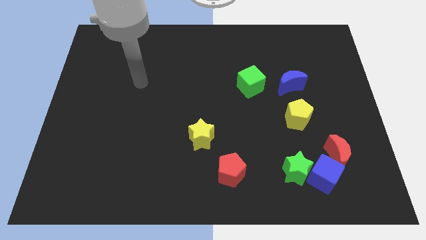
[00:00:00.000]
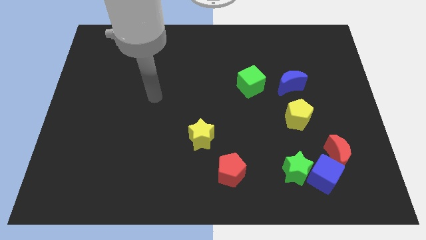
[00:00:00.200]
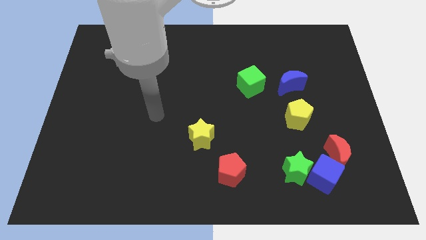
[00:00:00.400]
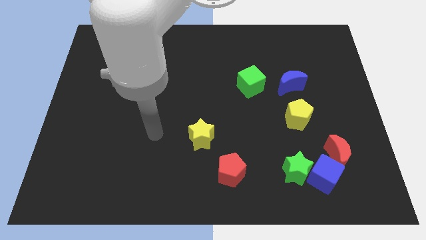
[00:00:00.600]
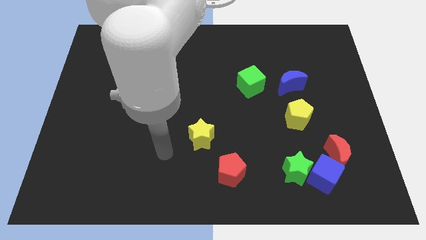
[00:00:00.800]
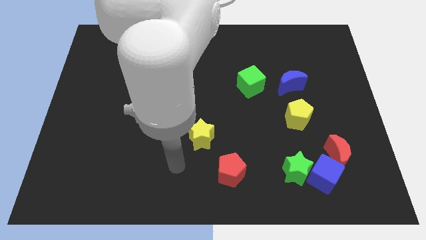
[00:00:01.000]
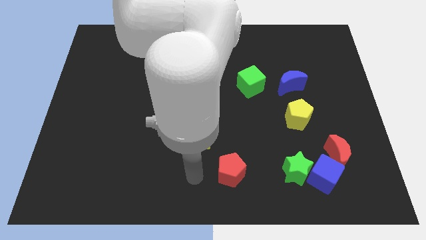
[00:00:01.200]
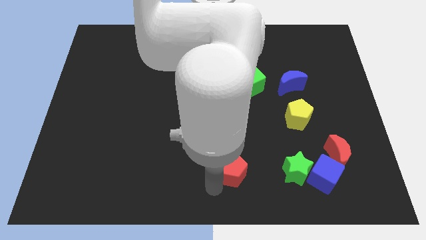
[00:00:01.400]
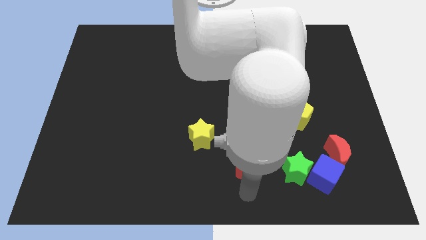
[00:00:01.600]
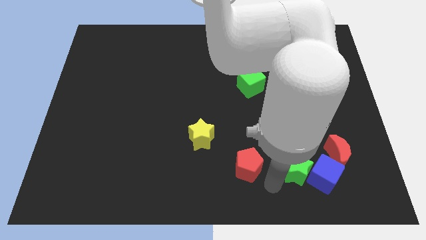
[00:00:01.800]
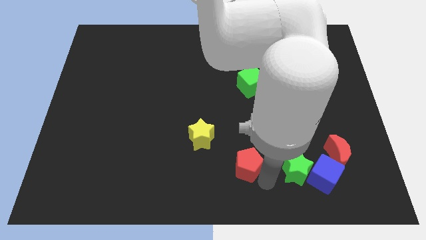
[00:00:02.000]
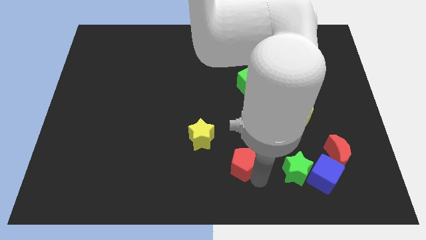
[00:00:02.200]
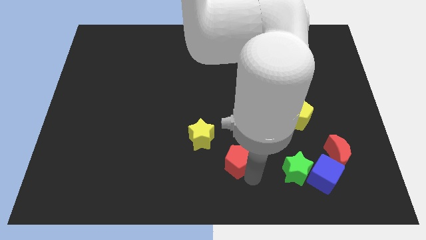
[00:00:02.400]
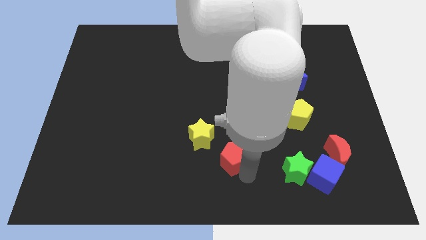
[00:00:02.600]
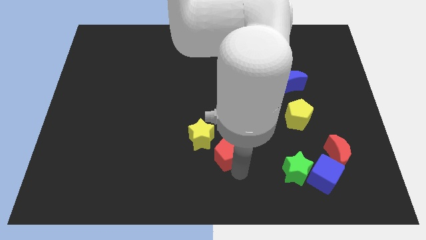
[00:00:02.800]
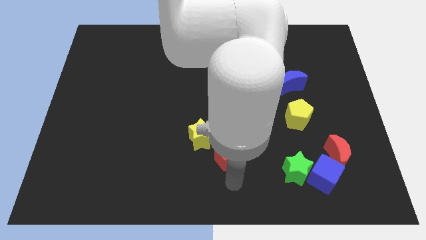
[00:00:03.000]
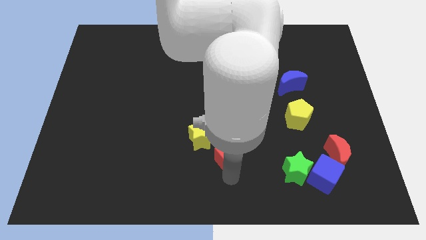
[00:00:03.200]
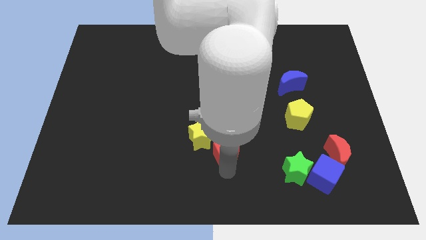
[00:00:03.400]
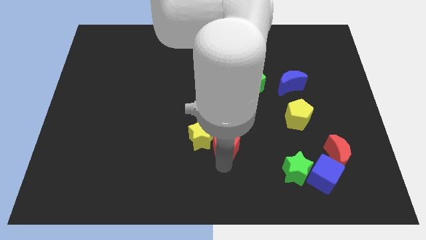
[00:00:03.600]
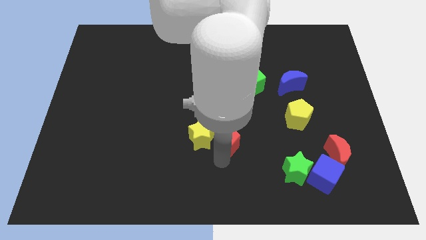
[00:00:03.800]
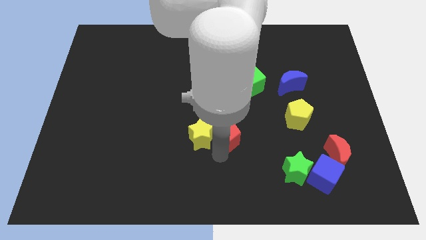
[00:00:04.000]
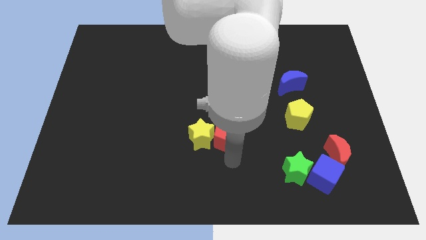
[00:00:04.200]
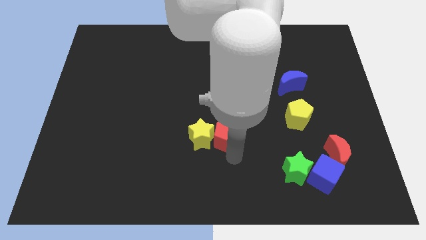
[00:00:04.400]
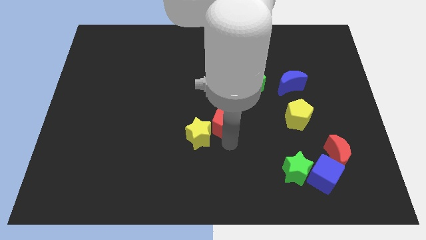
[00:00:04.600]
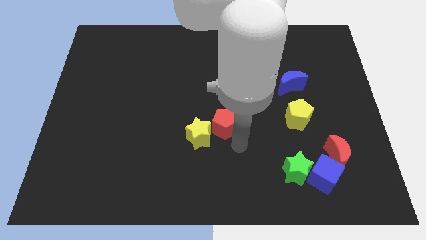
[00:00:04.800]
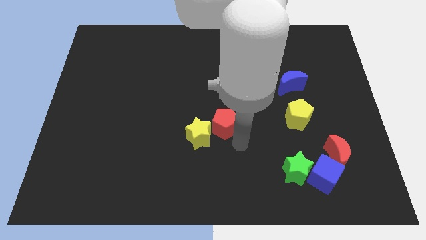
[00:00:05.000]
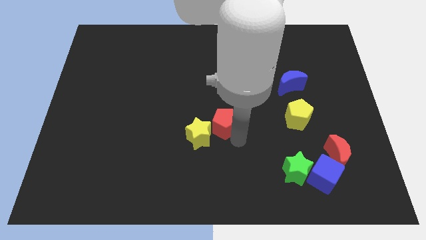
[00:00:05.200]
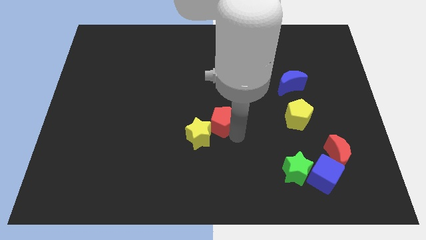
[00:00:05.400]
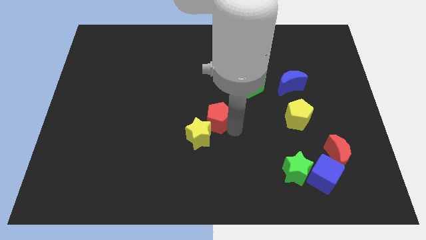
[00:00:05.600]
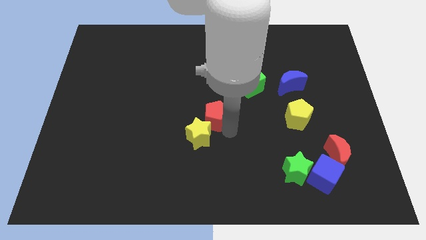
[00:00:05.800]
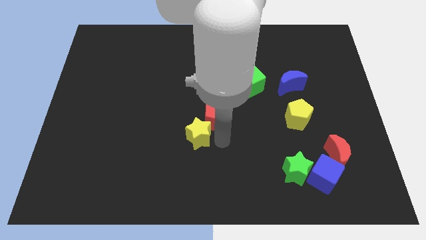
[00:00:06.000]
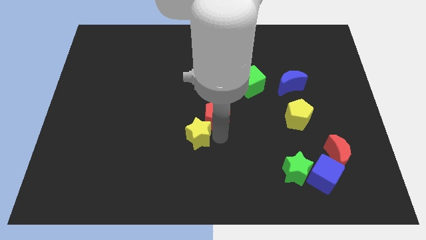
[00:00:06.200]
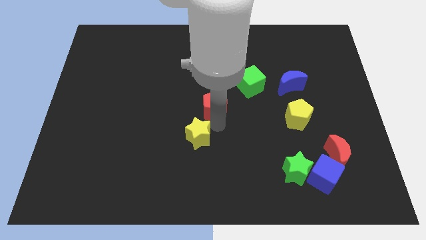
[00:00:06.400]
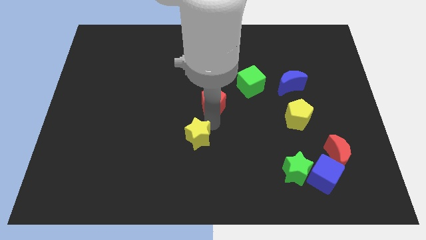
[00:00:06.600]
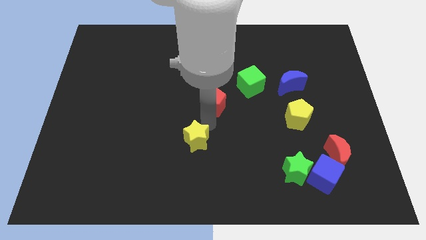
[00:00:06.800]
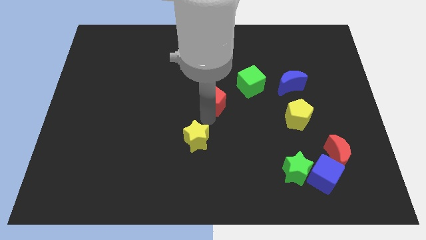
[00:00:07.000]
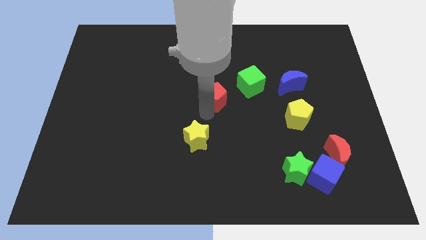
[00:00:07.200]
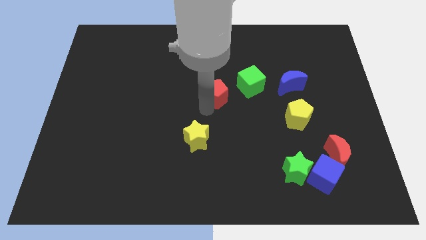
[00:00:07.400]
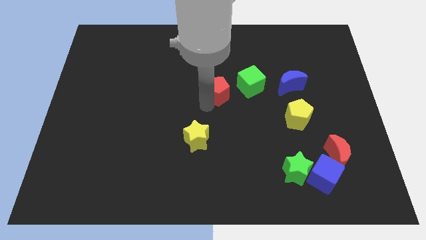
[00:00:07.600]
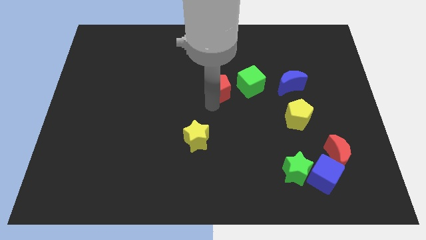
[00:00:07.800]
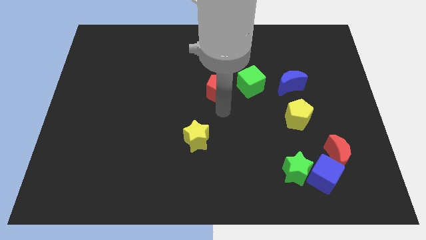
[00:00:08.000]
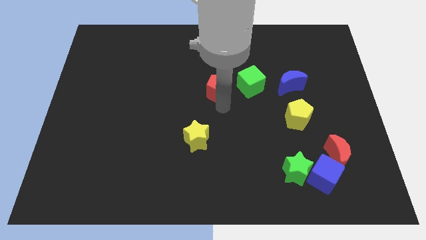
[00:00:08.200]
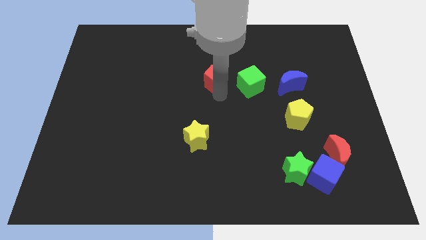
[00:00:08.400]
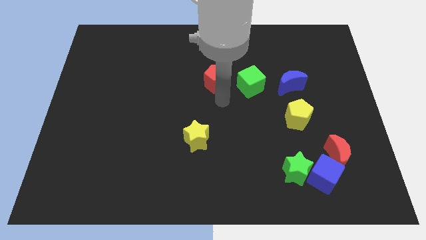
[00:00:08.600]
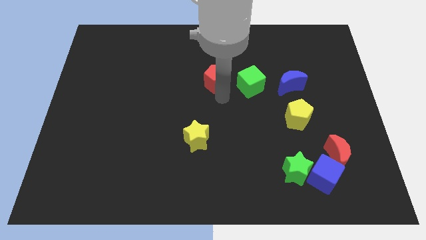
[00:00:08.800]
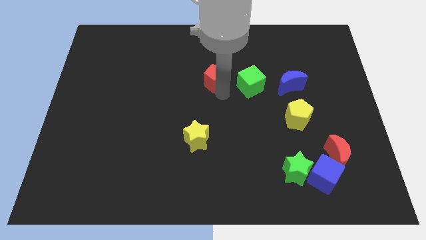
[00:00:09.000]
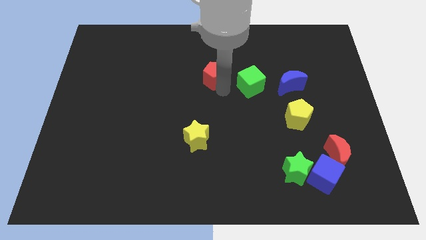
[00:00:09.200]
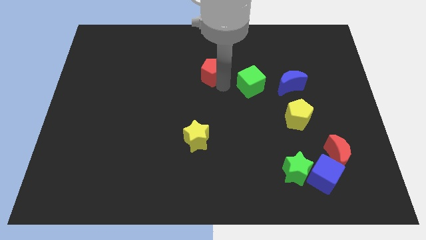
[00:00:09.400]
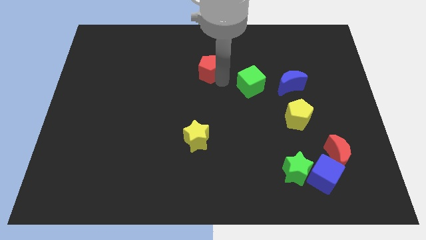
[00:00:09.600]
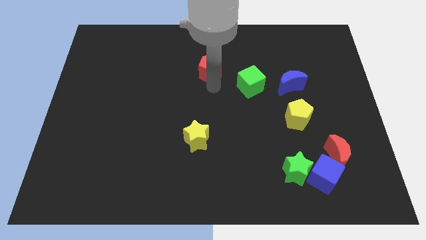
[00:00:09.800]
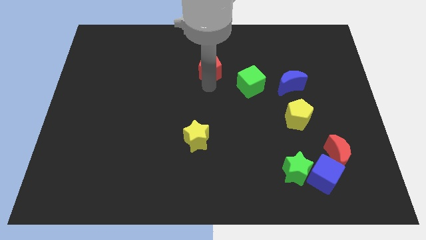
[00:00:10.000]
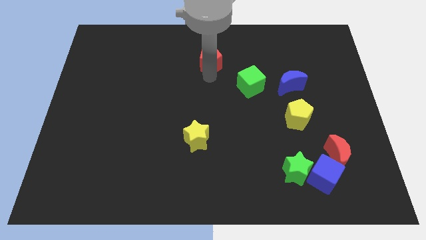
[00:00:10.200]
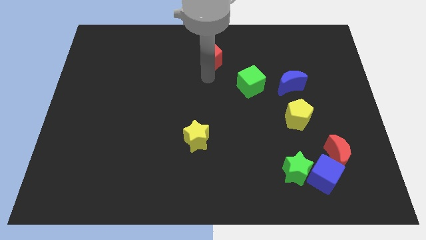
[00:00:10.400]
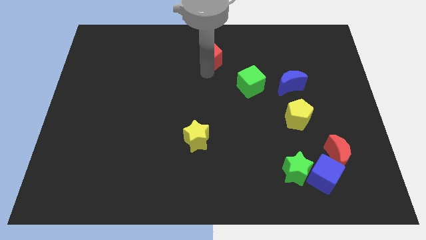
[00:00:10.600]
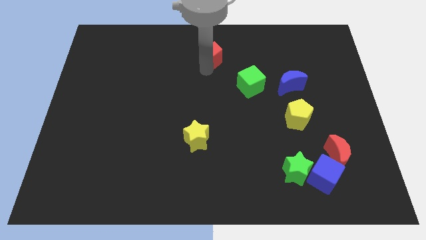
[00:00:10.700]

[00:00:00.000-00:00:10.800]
put the red pentagon to the top

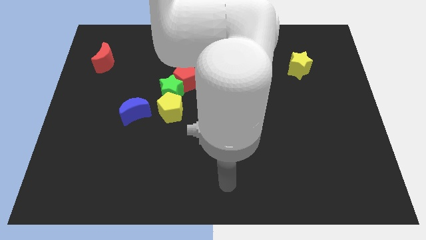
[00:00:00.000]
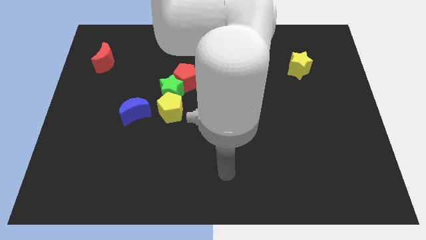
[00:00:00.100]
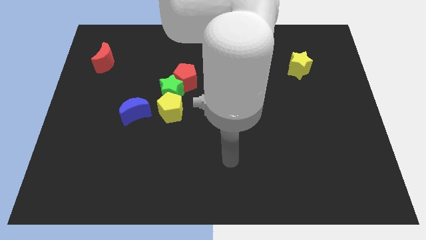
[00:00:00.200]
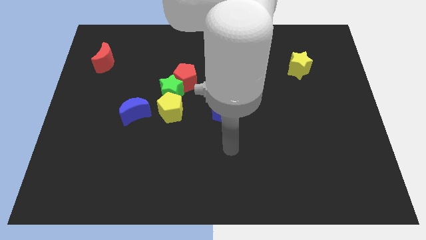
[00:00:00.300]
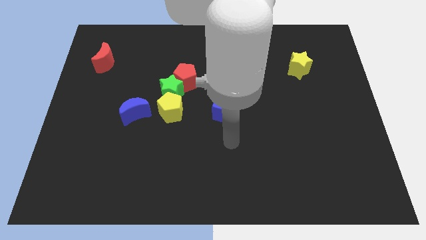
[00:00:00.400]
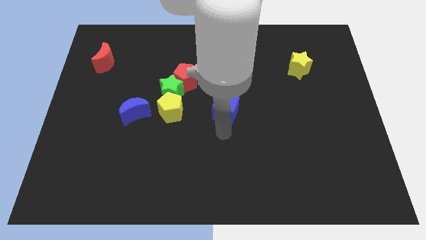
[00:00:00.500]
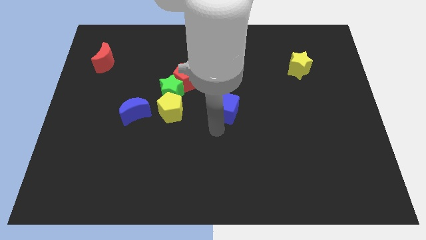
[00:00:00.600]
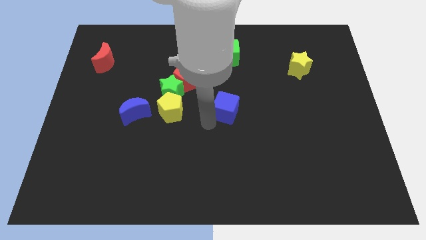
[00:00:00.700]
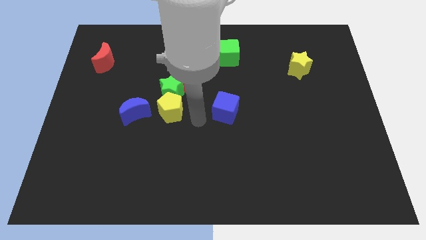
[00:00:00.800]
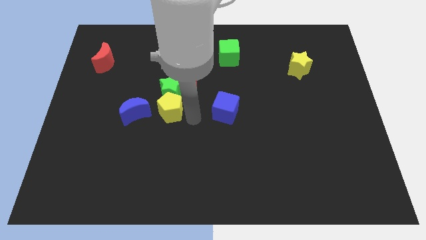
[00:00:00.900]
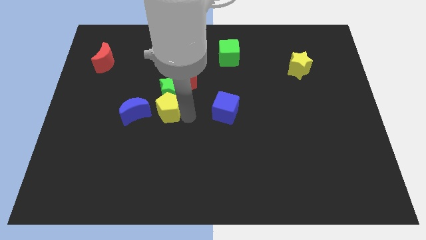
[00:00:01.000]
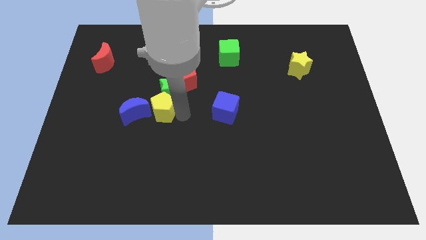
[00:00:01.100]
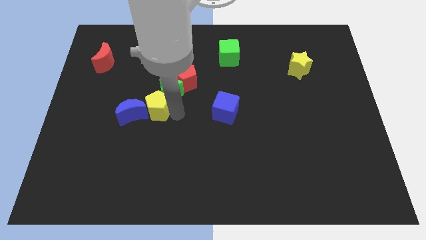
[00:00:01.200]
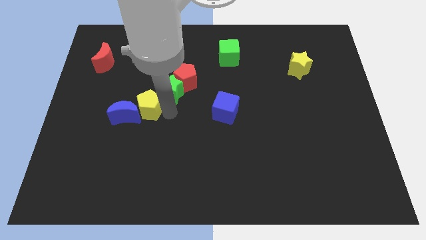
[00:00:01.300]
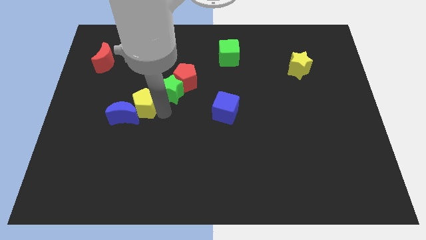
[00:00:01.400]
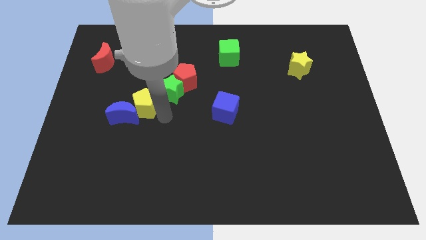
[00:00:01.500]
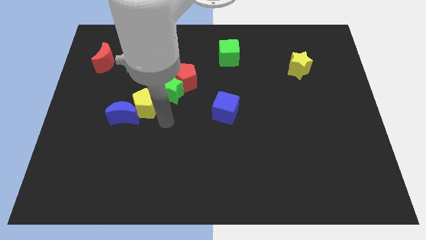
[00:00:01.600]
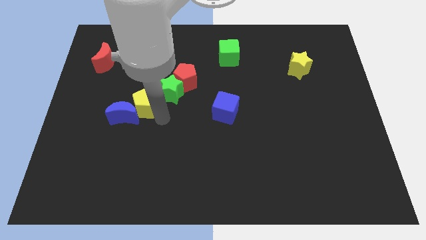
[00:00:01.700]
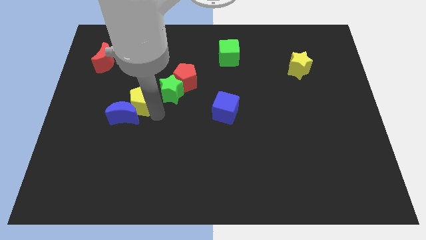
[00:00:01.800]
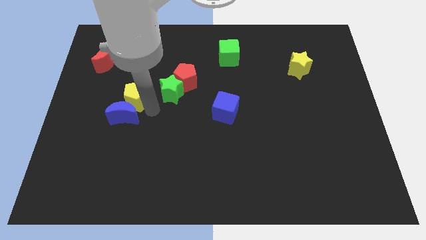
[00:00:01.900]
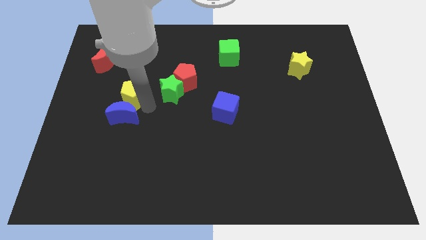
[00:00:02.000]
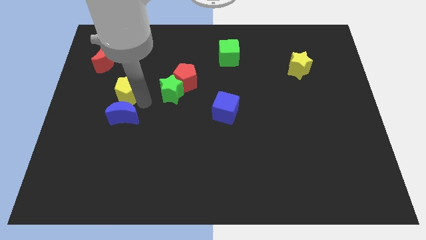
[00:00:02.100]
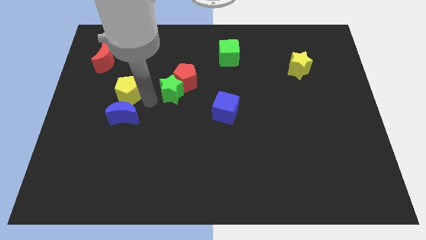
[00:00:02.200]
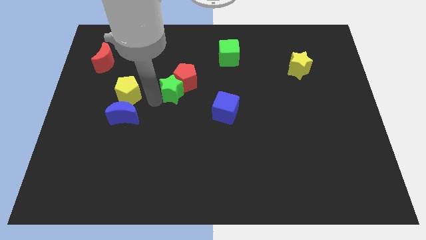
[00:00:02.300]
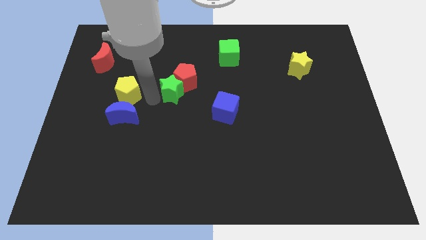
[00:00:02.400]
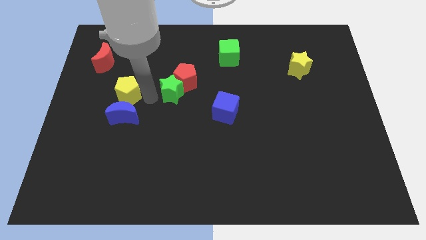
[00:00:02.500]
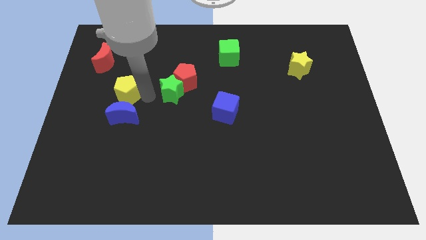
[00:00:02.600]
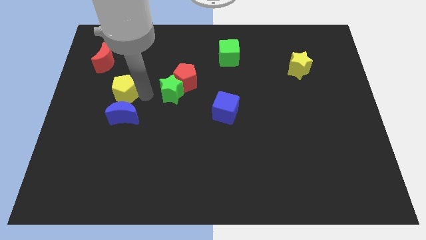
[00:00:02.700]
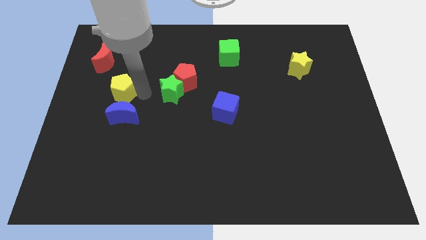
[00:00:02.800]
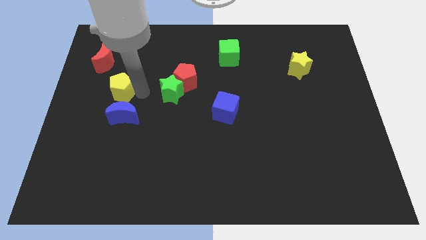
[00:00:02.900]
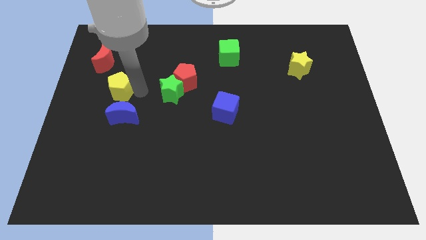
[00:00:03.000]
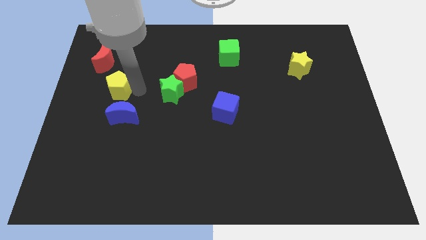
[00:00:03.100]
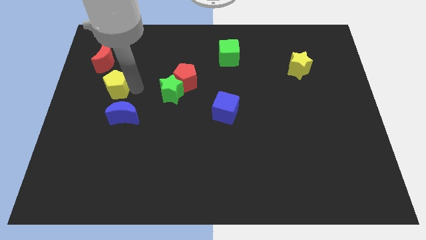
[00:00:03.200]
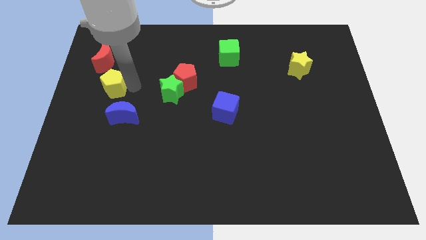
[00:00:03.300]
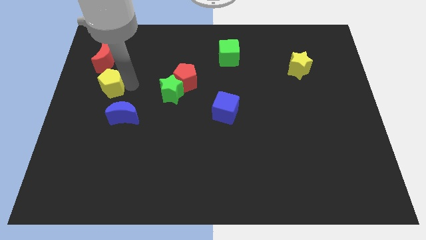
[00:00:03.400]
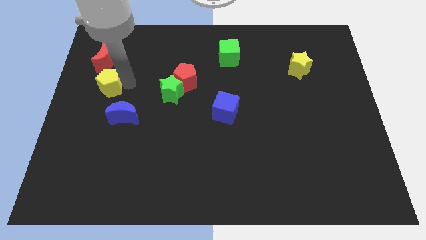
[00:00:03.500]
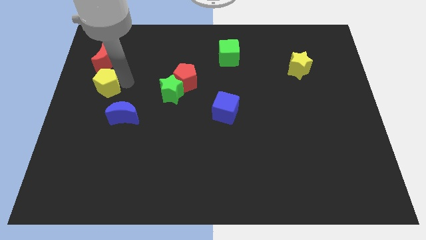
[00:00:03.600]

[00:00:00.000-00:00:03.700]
move the yellow pentagon to the center left
